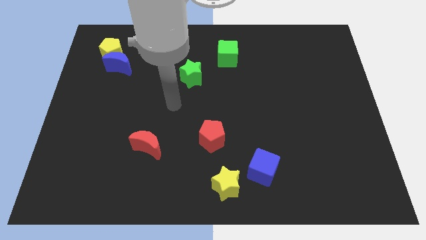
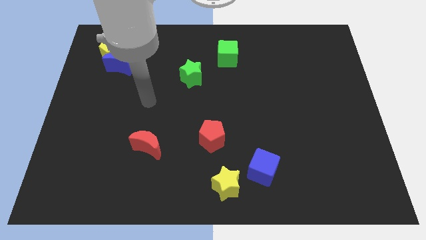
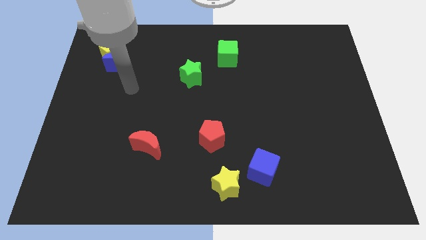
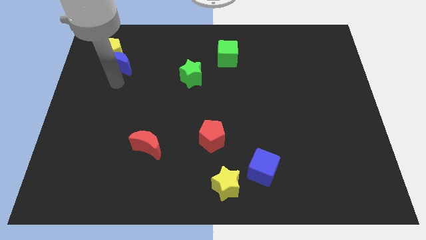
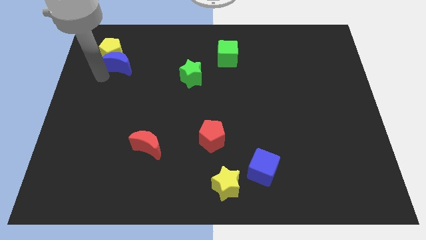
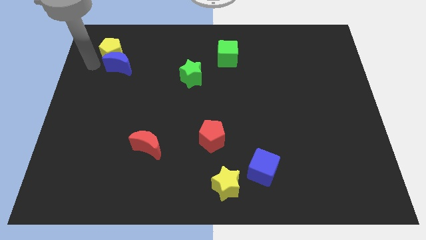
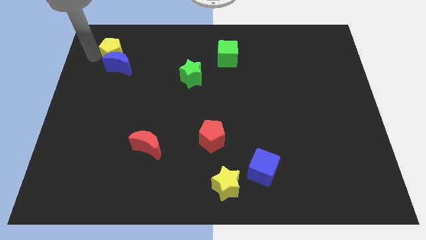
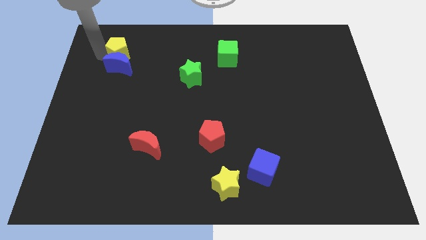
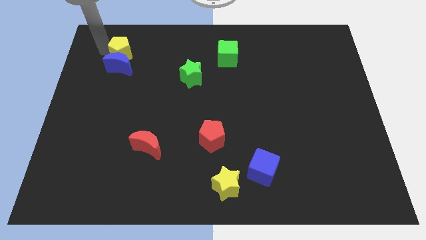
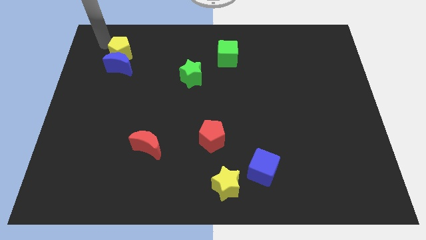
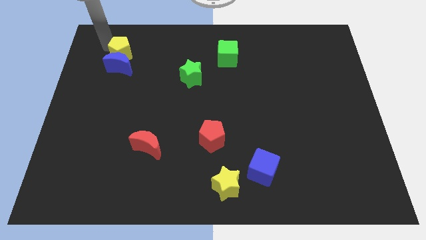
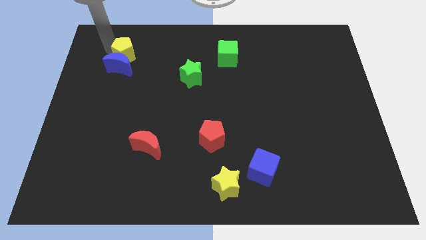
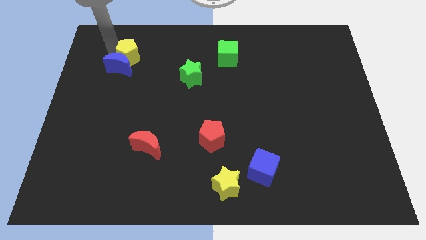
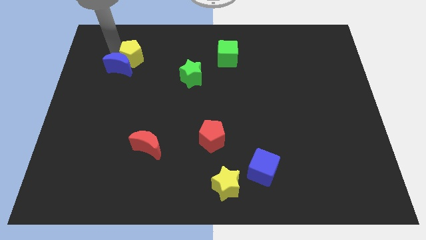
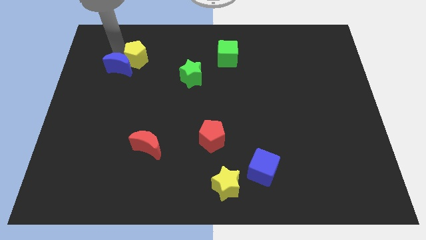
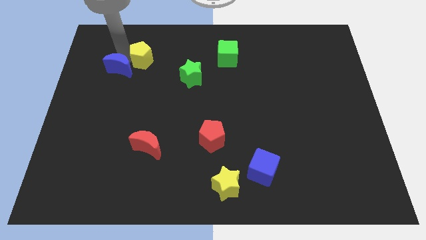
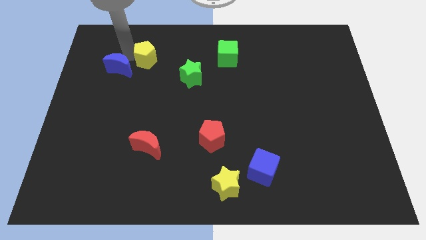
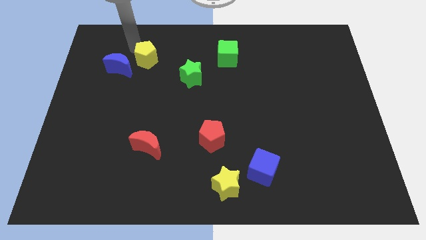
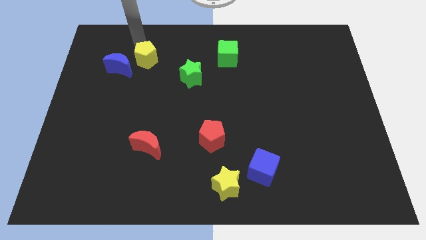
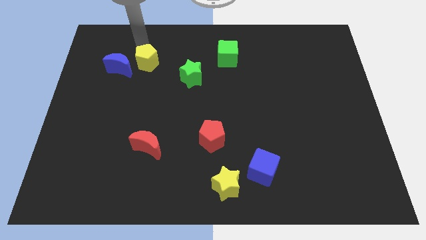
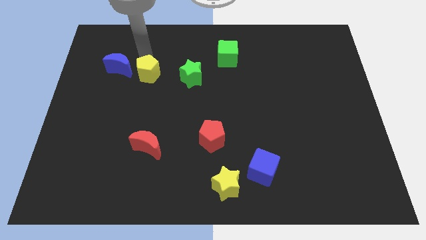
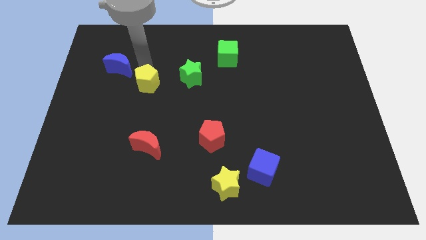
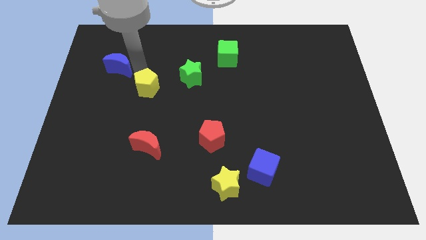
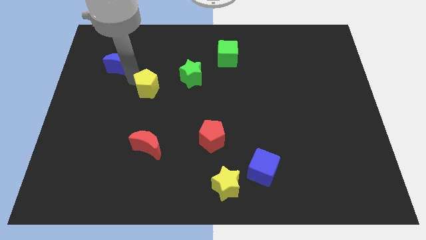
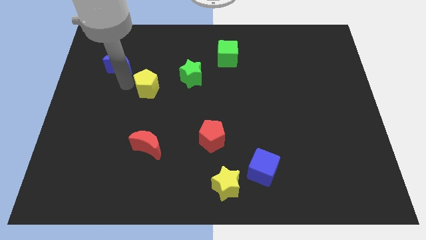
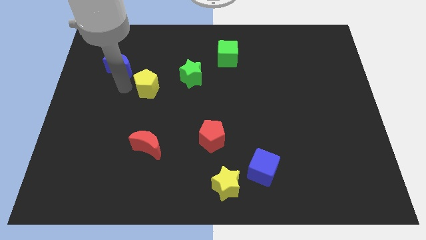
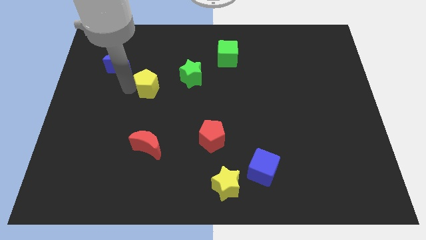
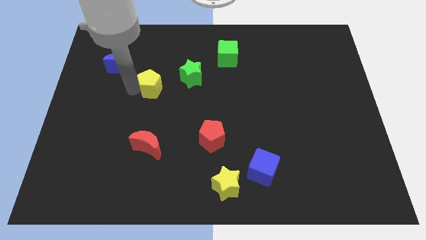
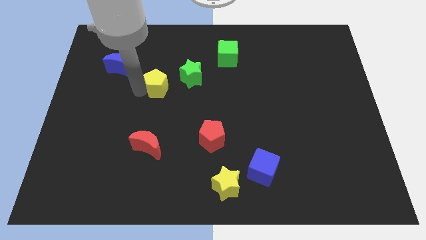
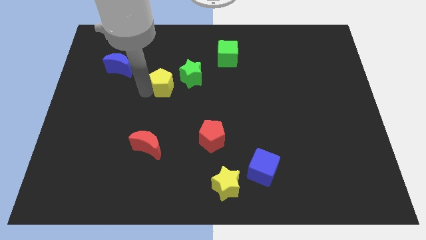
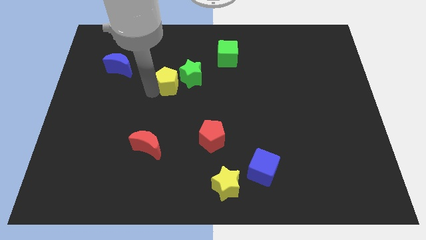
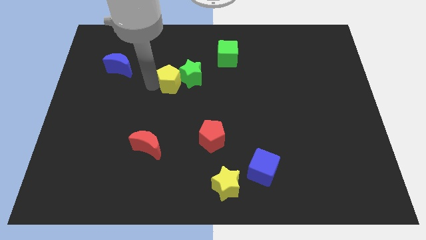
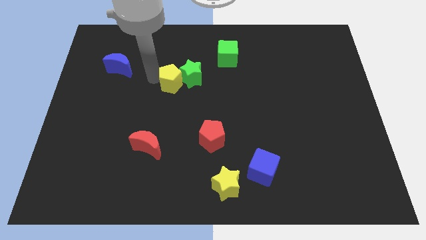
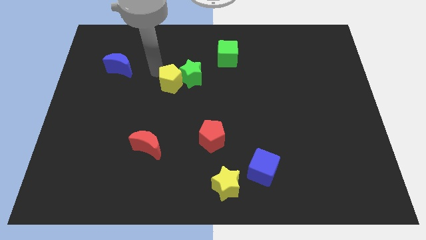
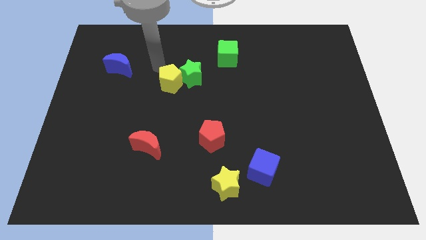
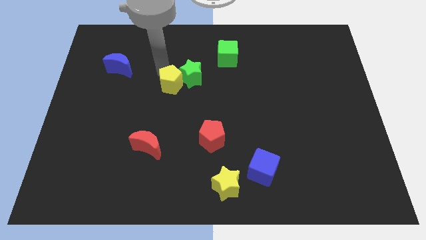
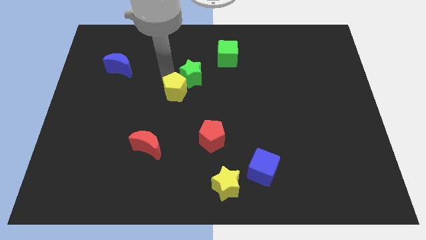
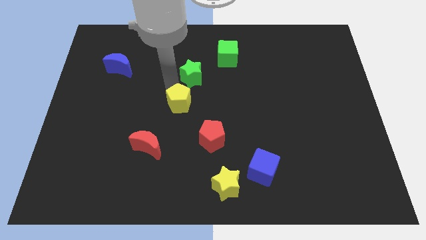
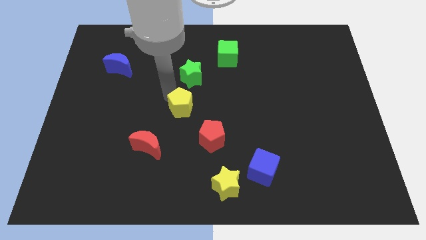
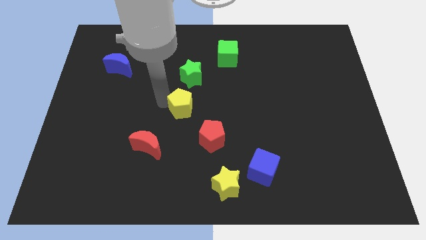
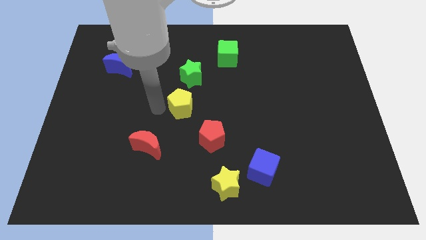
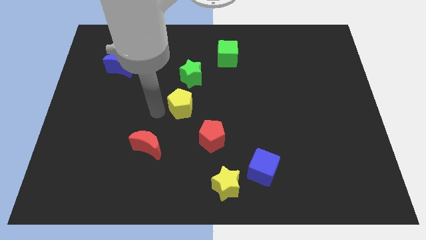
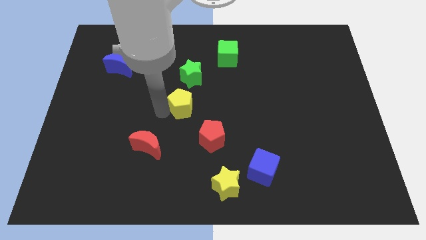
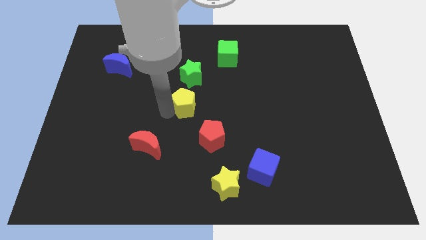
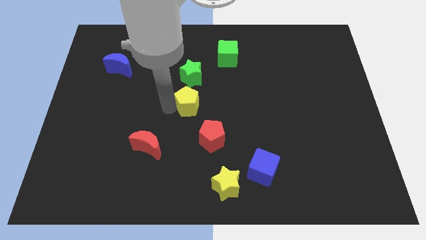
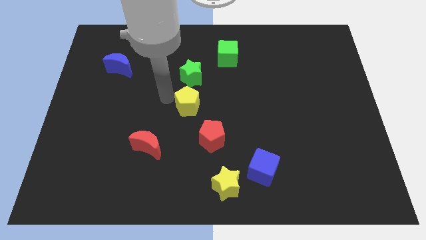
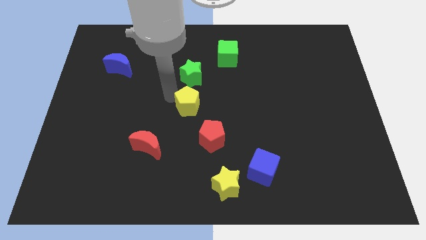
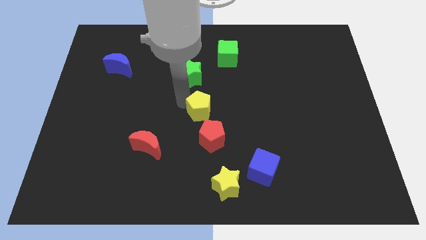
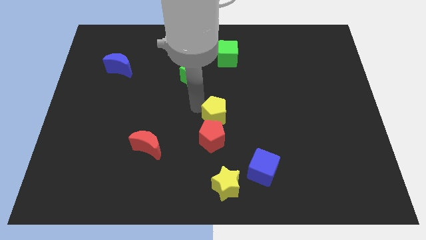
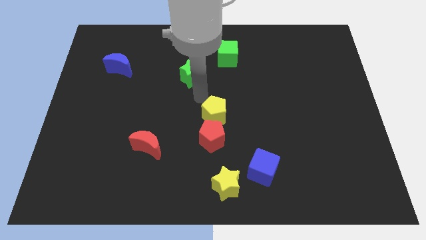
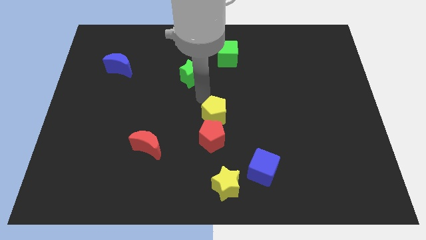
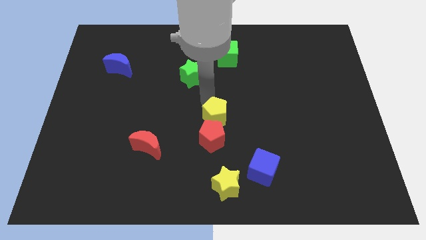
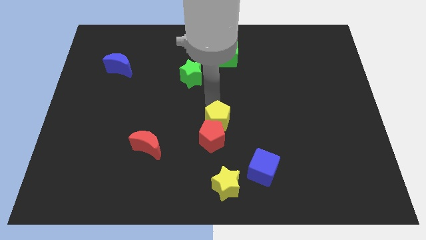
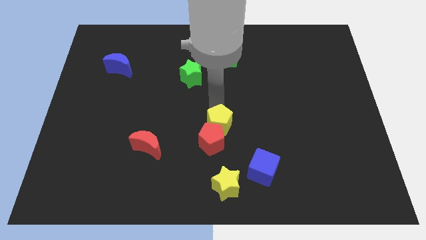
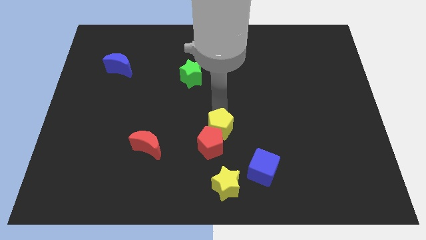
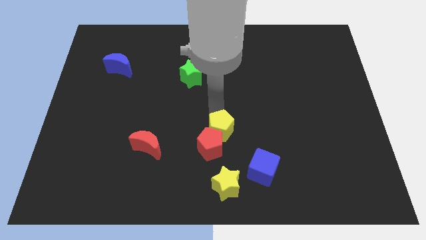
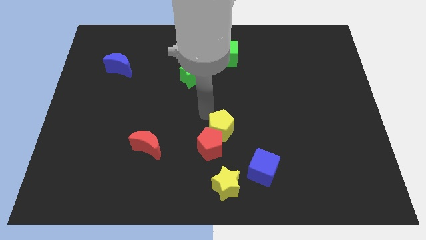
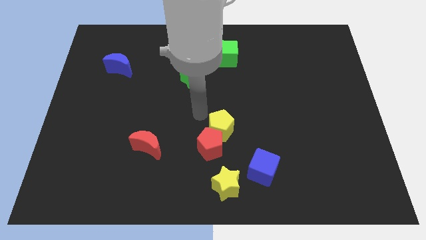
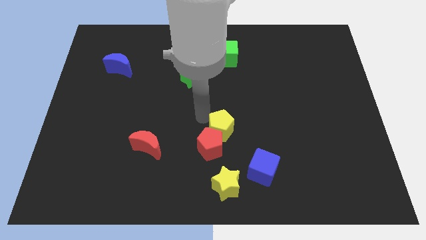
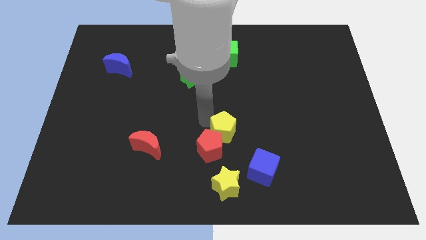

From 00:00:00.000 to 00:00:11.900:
slide the yellow pentagon to the top left side of the blue cube

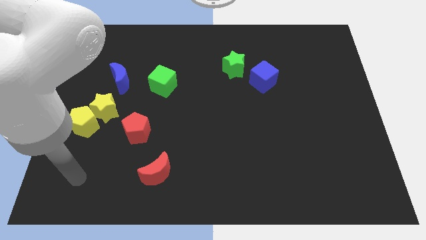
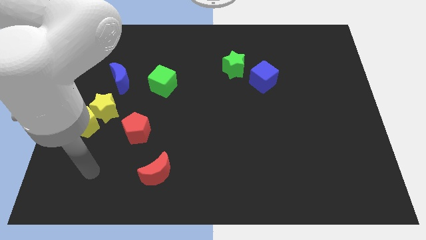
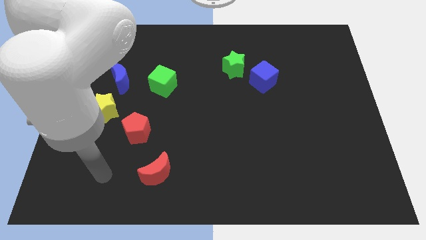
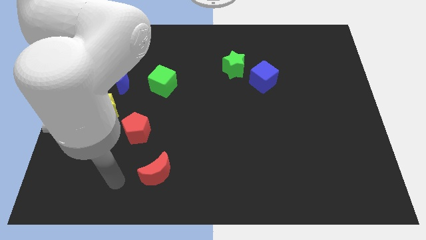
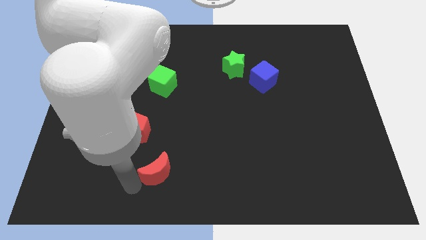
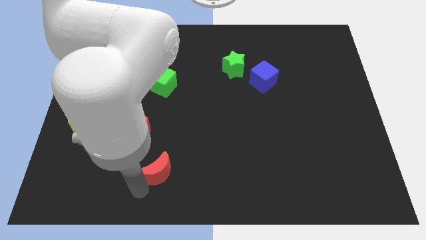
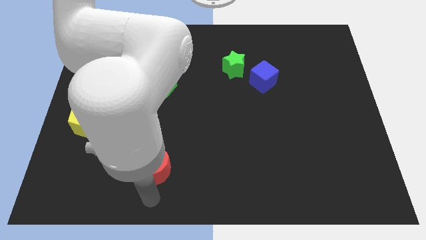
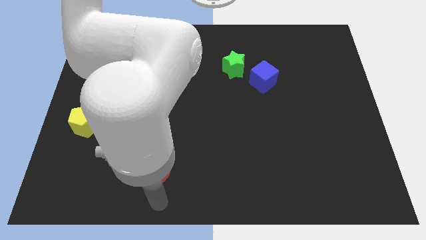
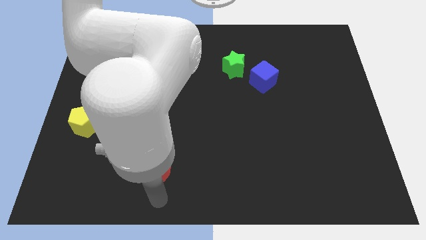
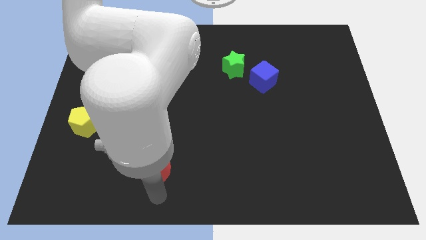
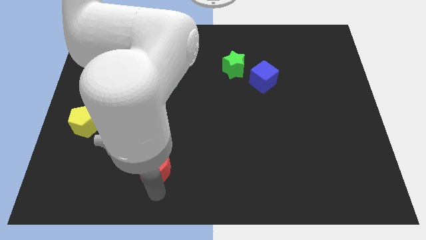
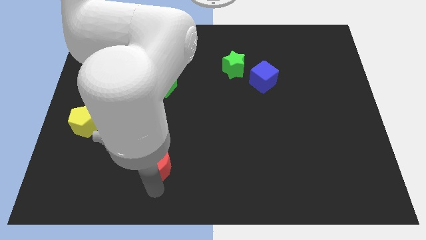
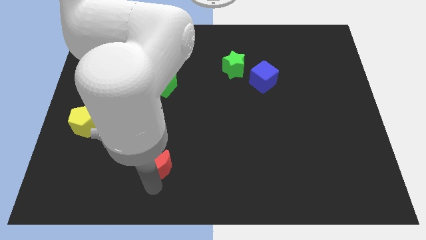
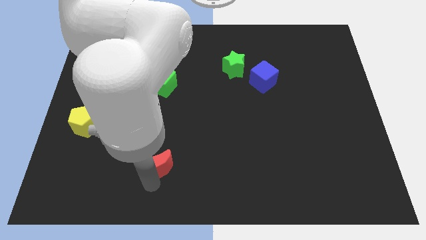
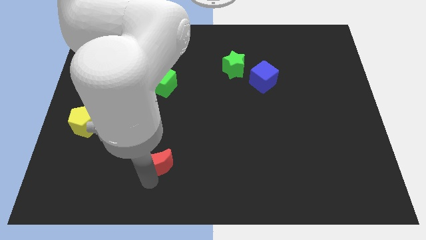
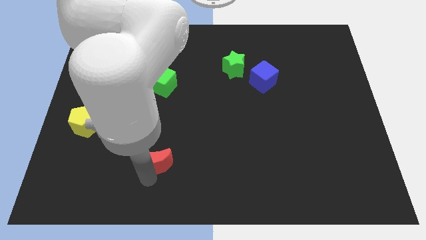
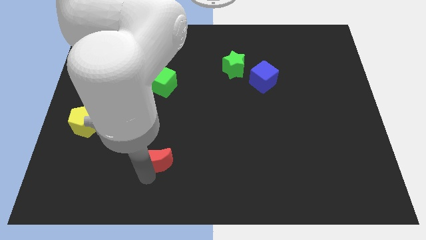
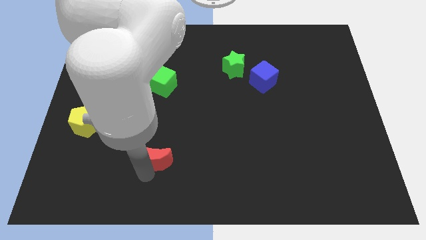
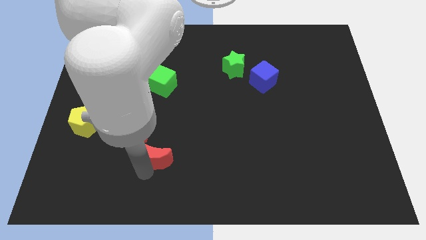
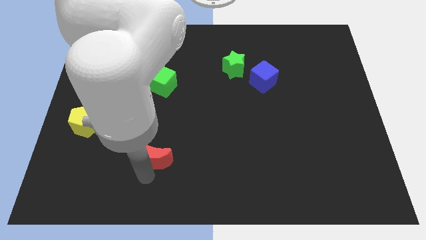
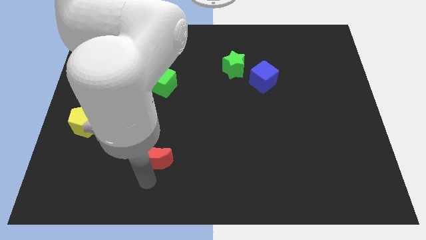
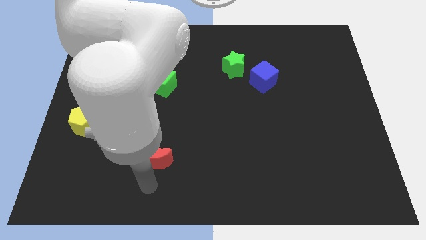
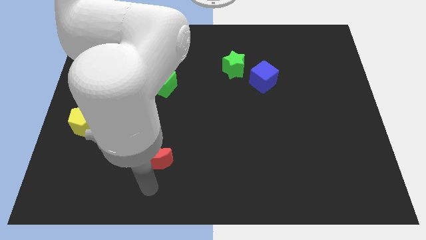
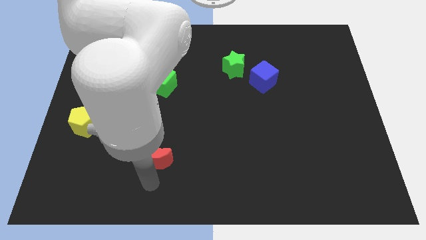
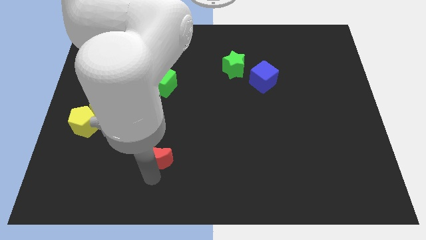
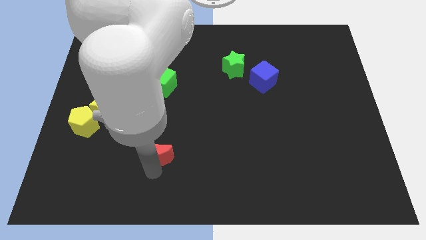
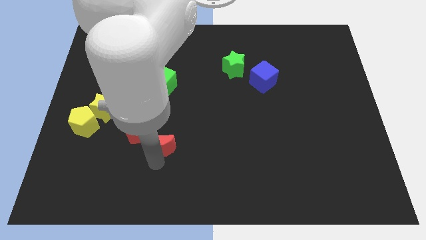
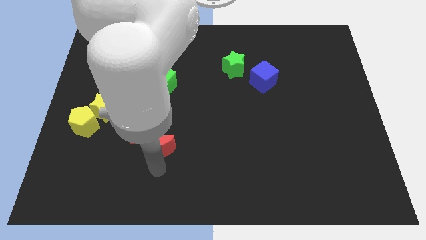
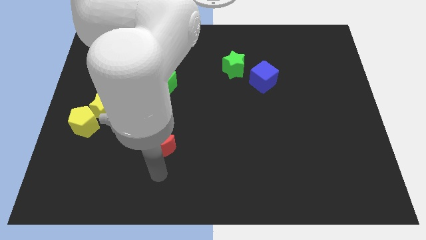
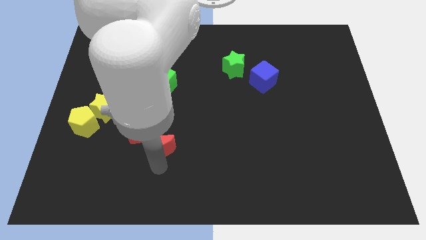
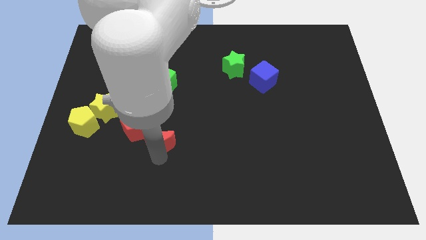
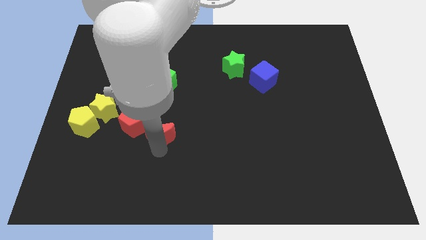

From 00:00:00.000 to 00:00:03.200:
slide the red moon below the green cube
